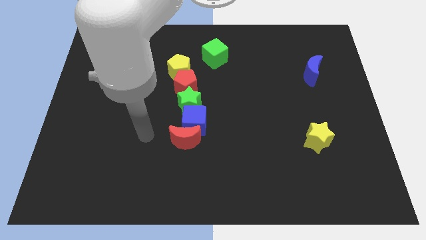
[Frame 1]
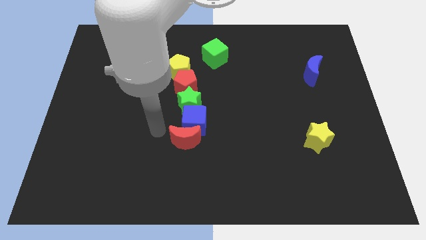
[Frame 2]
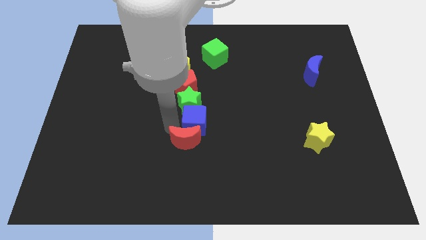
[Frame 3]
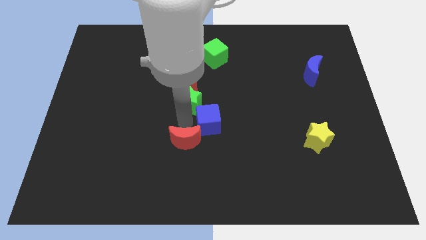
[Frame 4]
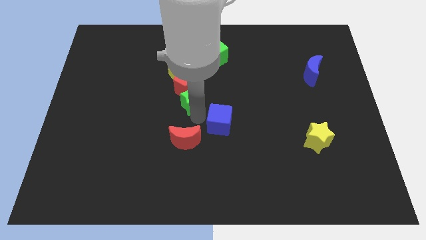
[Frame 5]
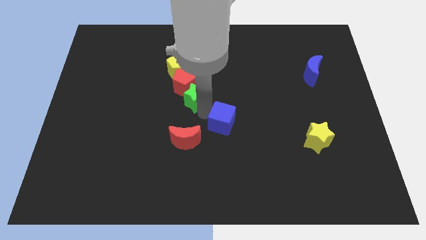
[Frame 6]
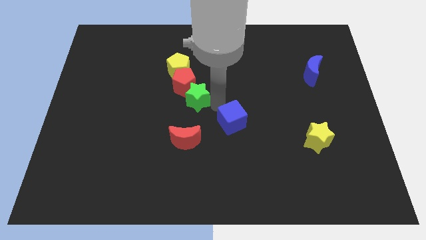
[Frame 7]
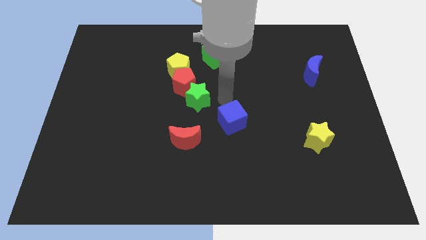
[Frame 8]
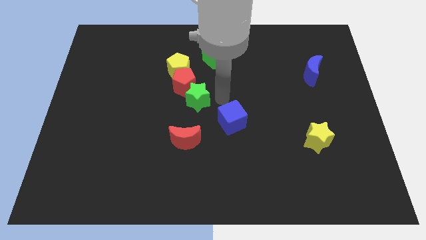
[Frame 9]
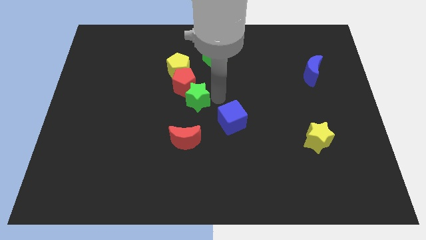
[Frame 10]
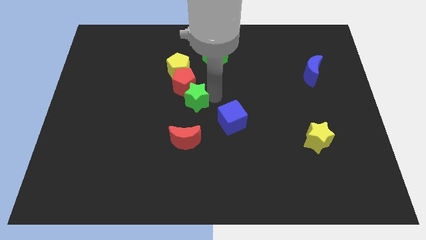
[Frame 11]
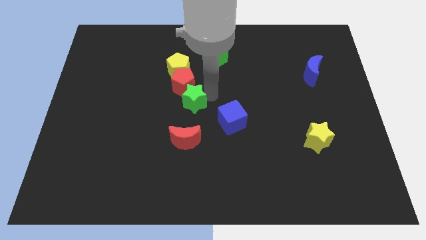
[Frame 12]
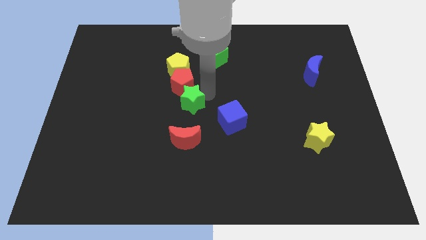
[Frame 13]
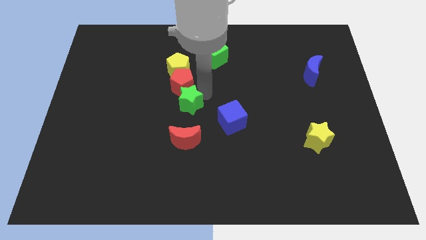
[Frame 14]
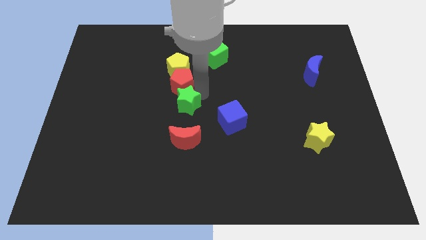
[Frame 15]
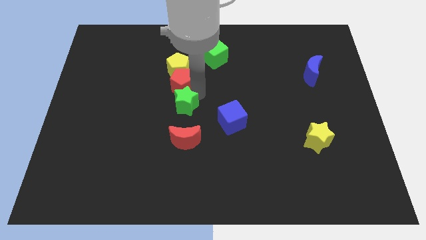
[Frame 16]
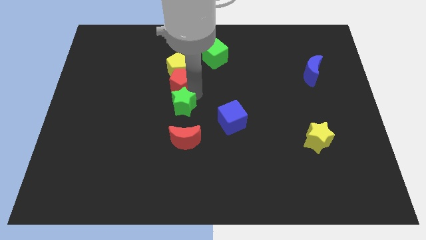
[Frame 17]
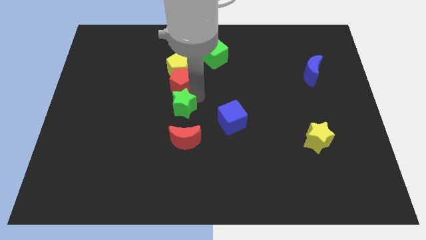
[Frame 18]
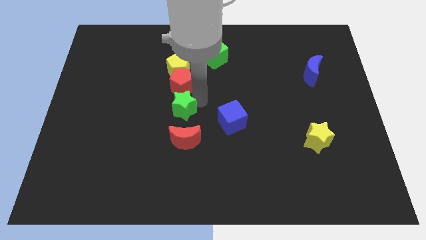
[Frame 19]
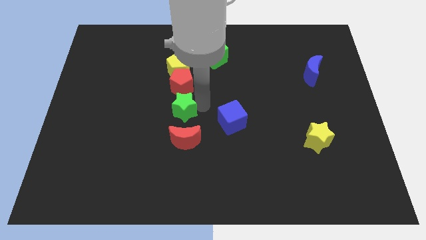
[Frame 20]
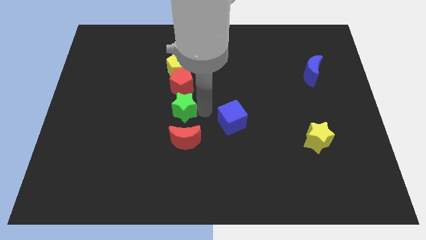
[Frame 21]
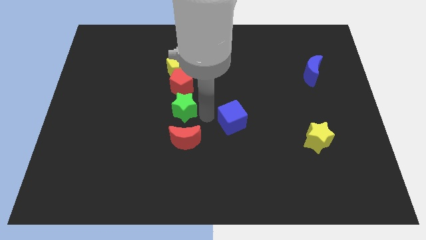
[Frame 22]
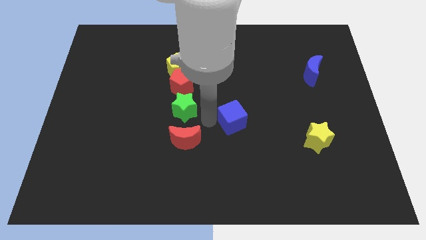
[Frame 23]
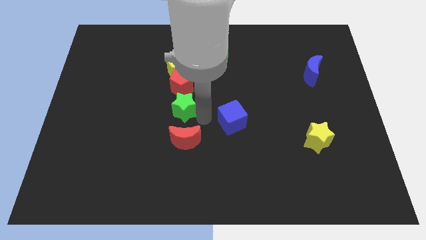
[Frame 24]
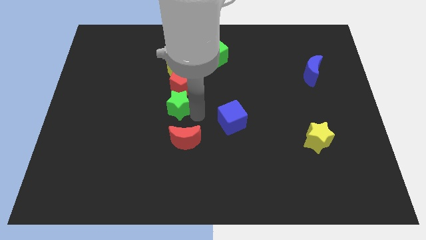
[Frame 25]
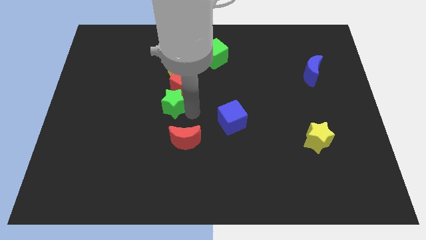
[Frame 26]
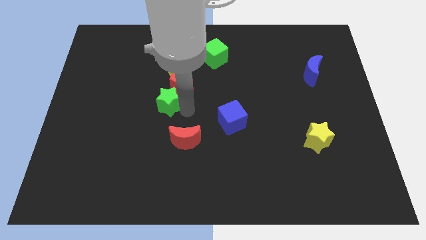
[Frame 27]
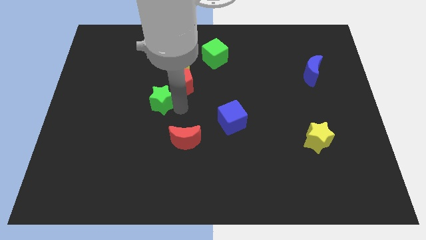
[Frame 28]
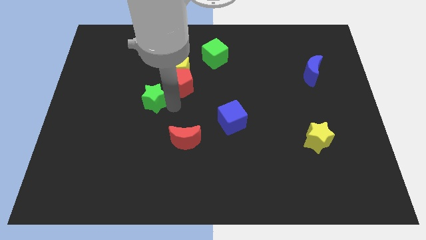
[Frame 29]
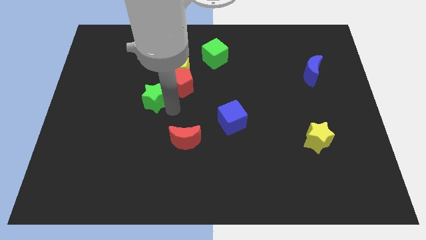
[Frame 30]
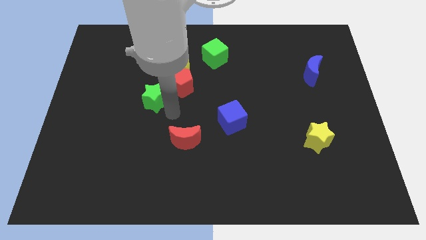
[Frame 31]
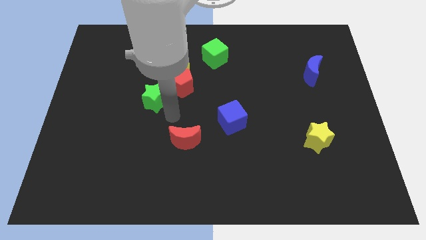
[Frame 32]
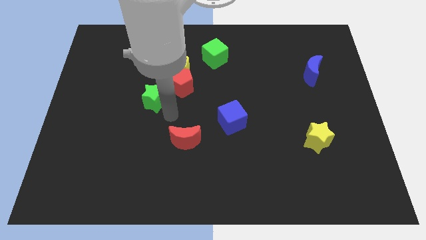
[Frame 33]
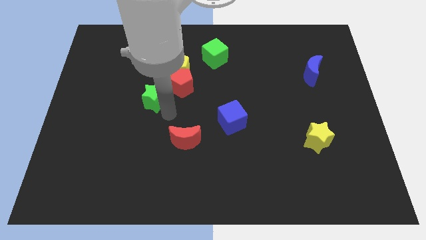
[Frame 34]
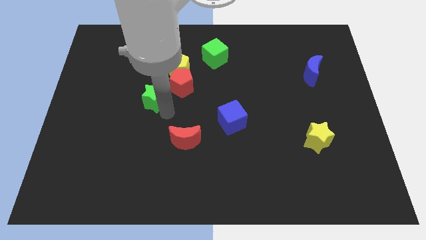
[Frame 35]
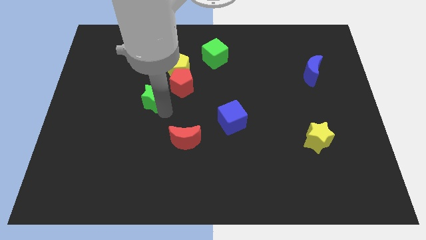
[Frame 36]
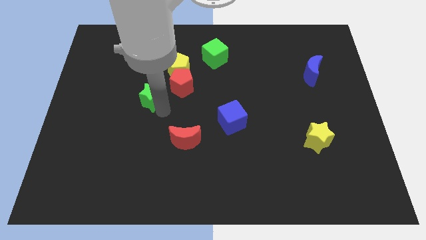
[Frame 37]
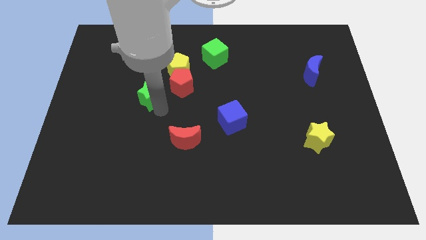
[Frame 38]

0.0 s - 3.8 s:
move the green star somewhat diagonally upwards and to the left

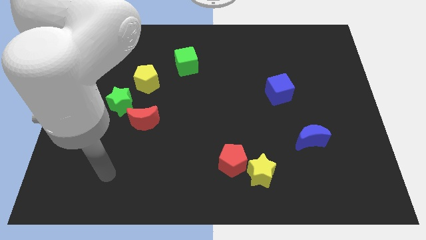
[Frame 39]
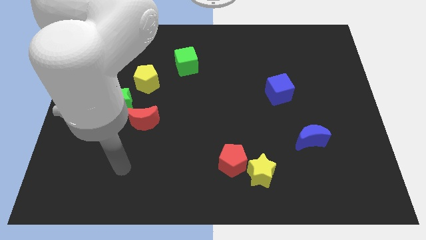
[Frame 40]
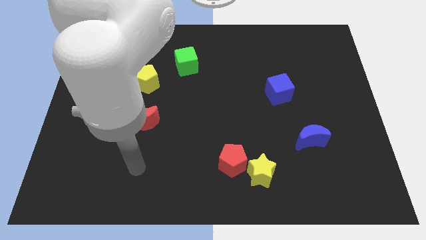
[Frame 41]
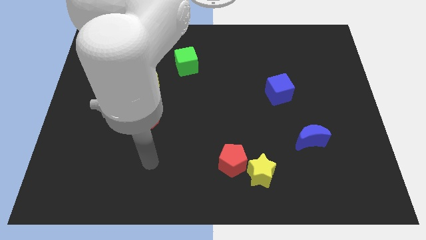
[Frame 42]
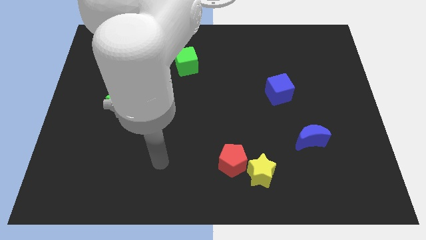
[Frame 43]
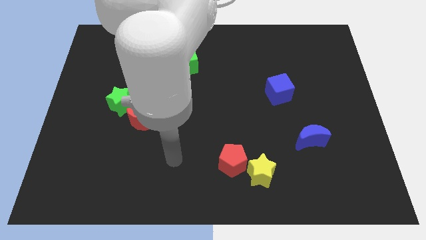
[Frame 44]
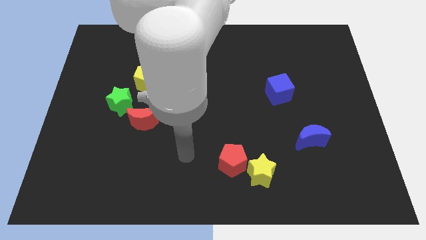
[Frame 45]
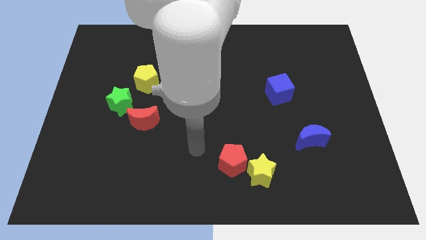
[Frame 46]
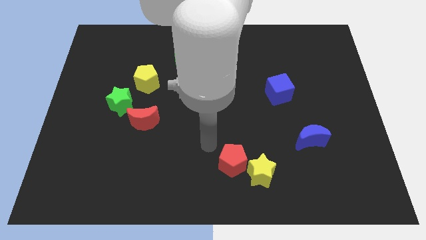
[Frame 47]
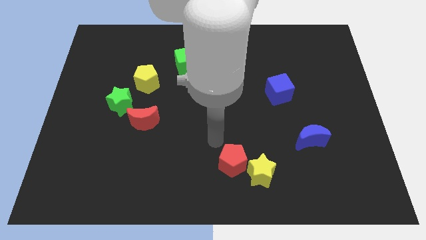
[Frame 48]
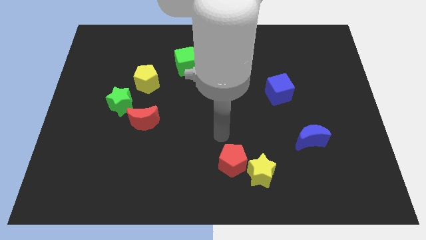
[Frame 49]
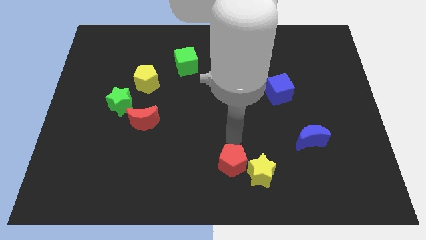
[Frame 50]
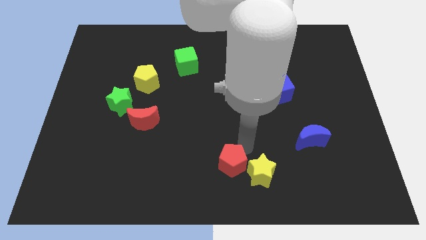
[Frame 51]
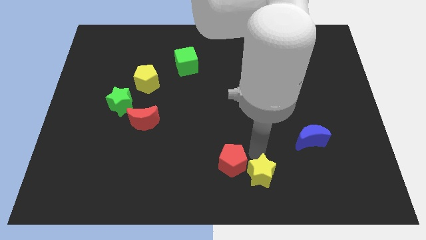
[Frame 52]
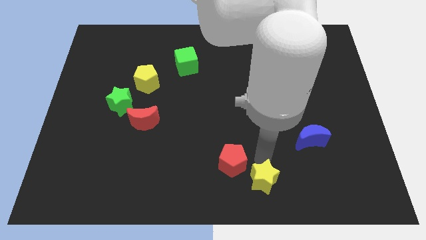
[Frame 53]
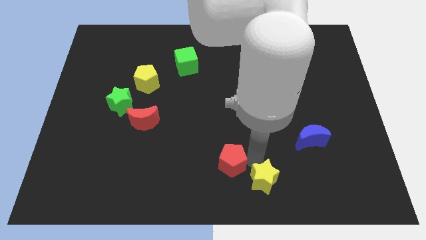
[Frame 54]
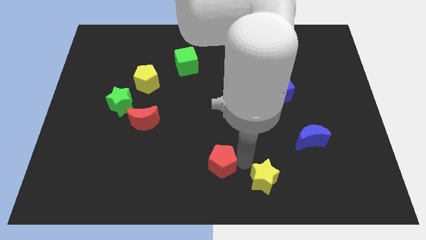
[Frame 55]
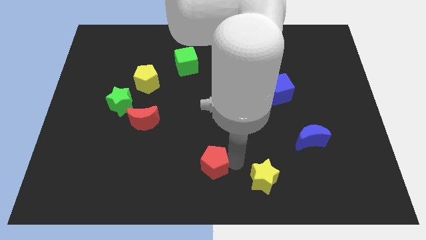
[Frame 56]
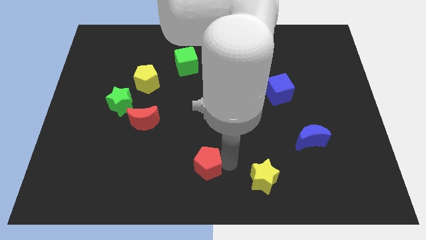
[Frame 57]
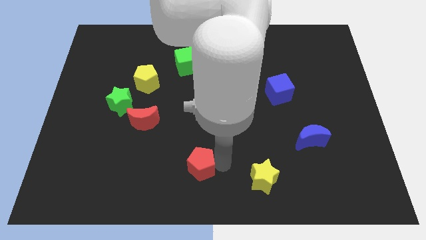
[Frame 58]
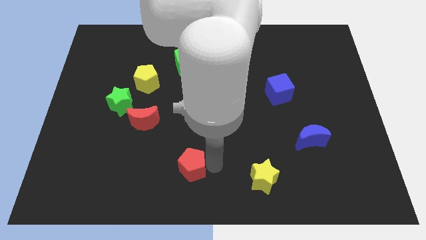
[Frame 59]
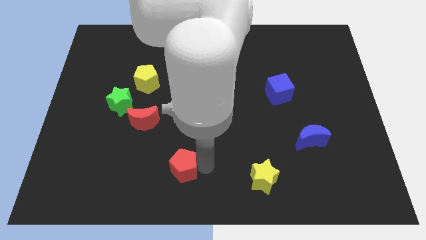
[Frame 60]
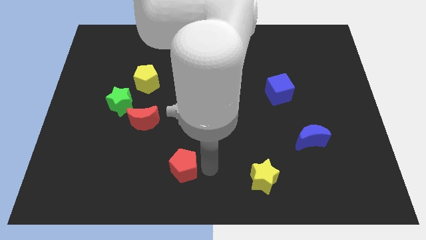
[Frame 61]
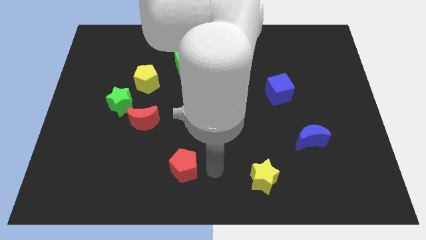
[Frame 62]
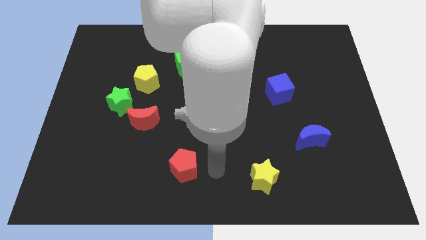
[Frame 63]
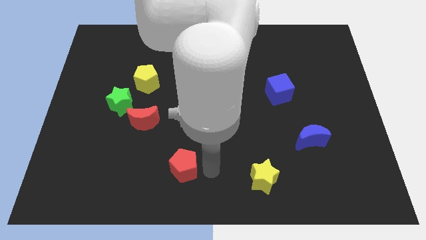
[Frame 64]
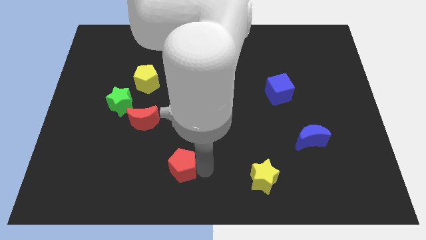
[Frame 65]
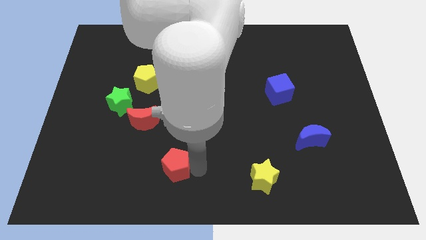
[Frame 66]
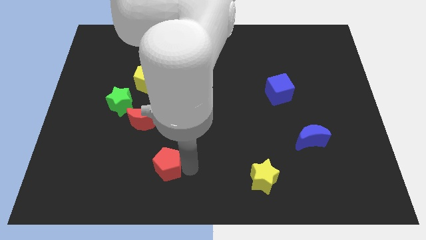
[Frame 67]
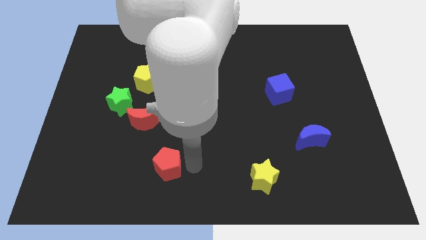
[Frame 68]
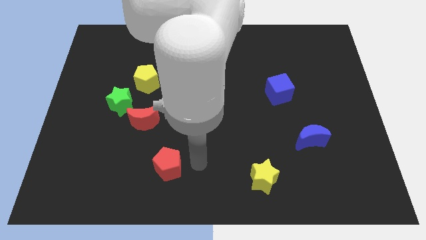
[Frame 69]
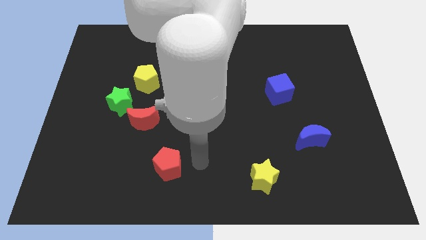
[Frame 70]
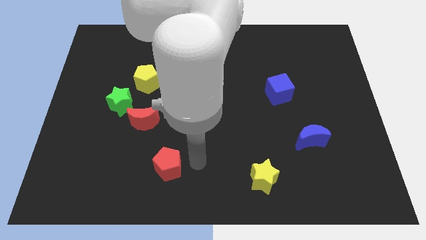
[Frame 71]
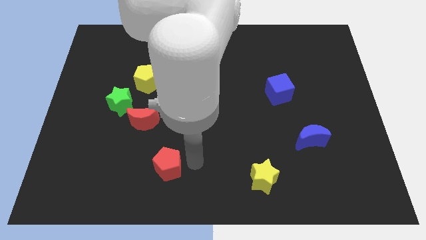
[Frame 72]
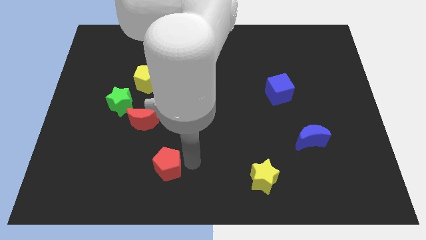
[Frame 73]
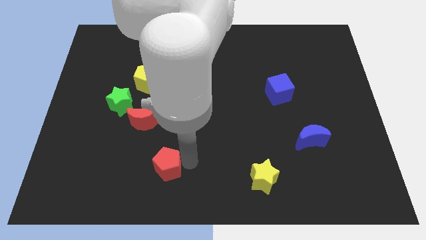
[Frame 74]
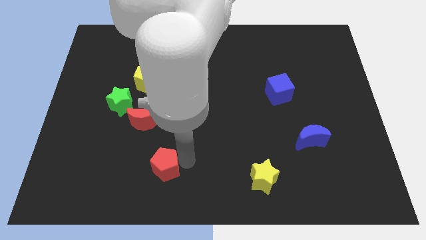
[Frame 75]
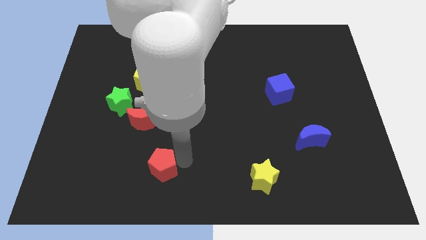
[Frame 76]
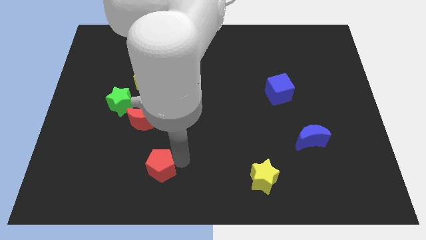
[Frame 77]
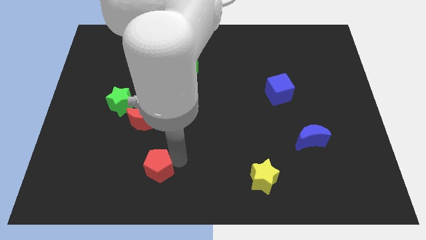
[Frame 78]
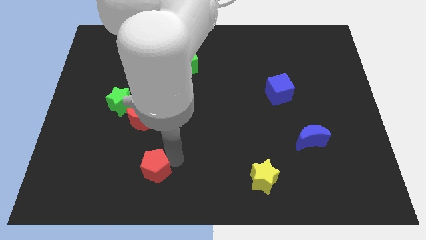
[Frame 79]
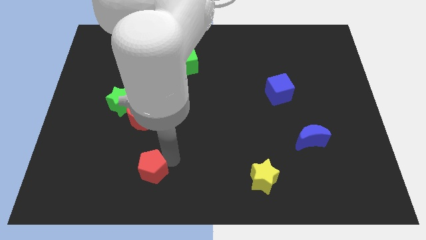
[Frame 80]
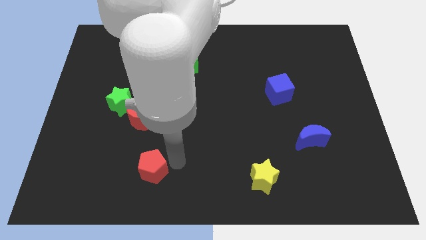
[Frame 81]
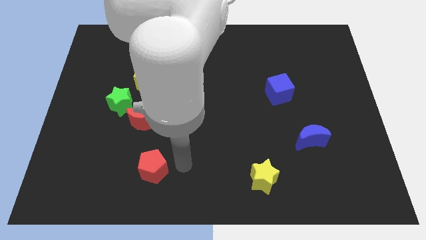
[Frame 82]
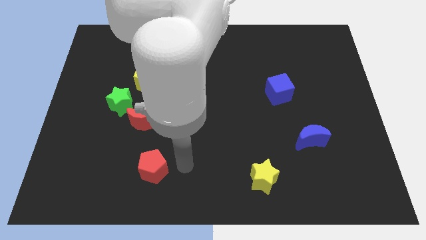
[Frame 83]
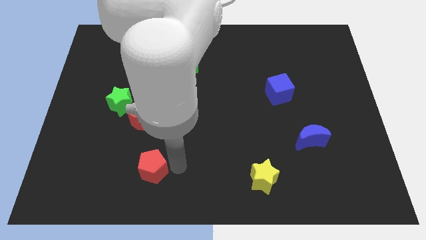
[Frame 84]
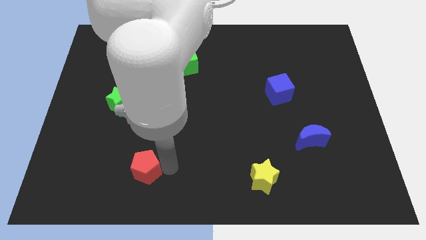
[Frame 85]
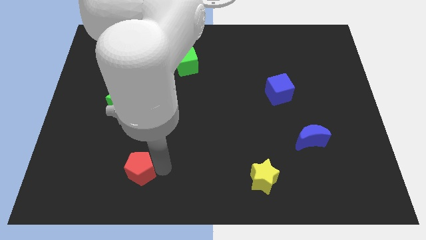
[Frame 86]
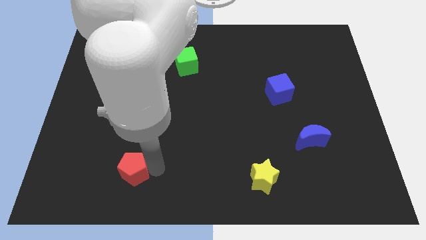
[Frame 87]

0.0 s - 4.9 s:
slide the red pentagon left
